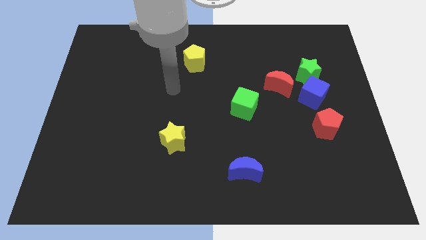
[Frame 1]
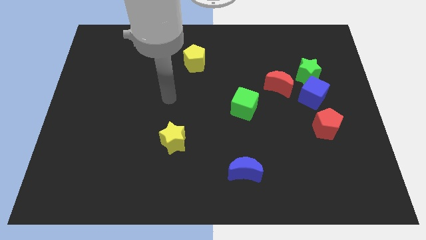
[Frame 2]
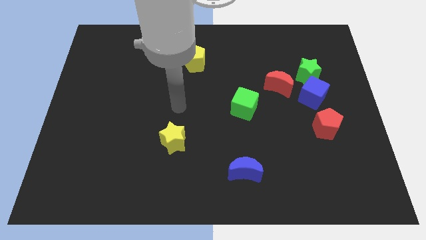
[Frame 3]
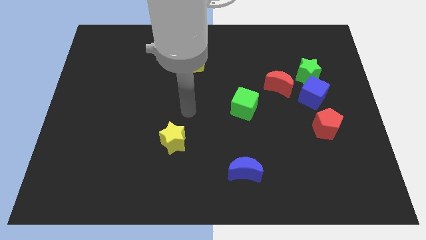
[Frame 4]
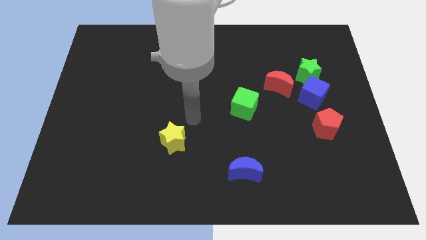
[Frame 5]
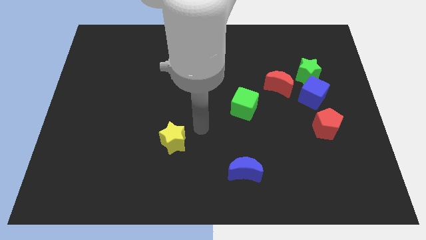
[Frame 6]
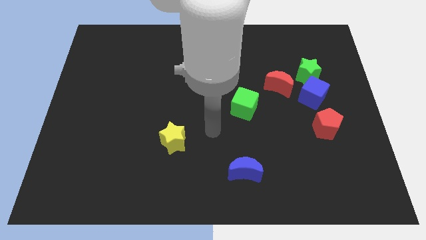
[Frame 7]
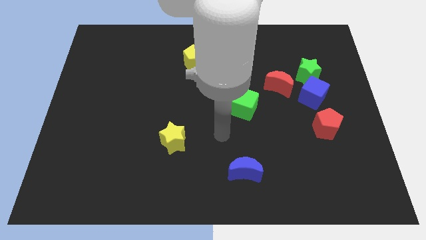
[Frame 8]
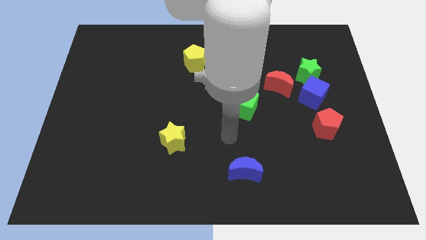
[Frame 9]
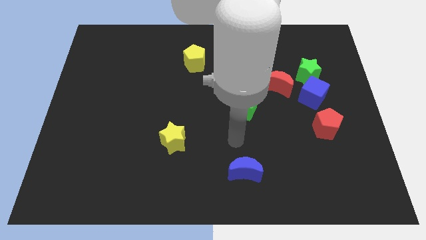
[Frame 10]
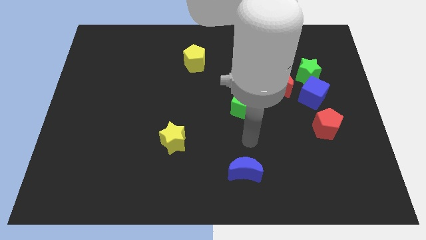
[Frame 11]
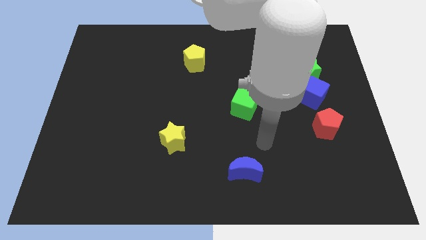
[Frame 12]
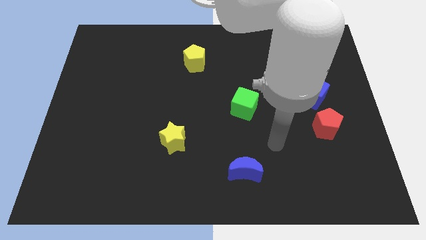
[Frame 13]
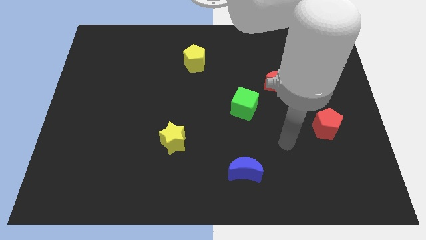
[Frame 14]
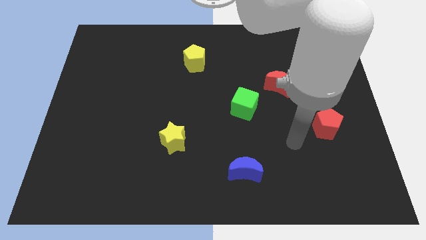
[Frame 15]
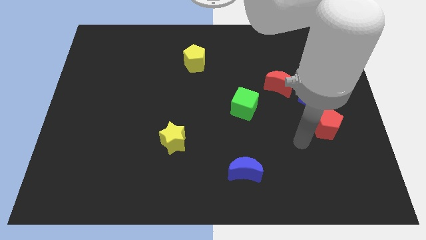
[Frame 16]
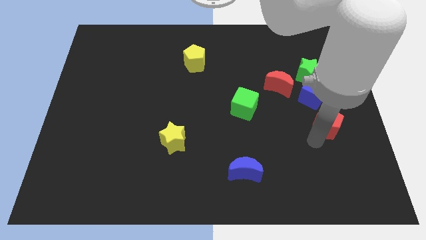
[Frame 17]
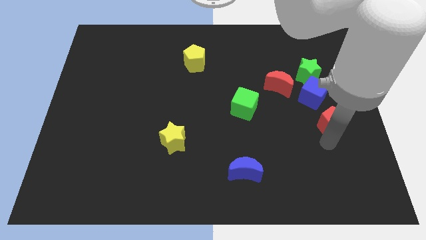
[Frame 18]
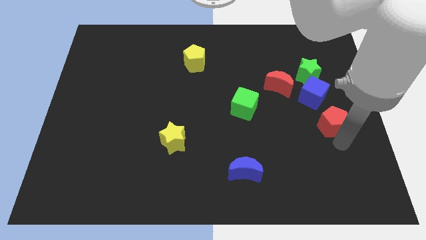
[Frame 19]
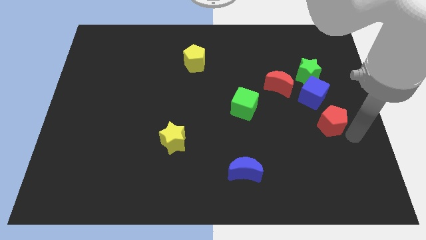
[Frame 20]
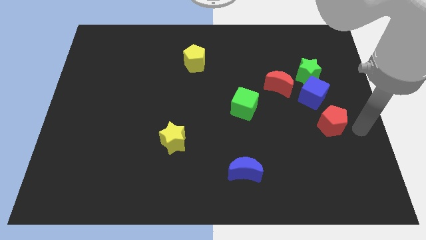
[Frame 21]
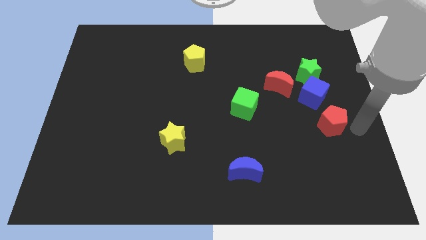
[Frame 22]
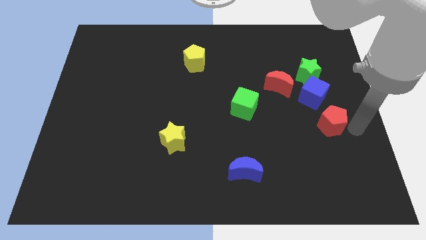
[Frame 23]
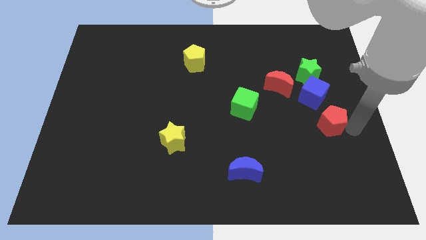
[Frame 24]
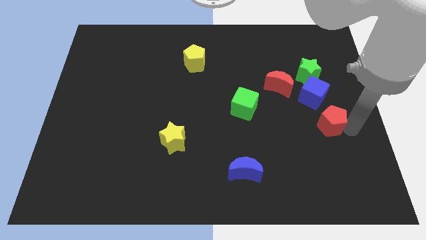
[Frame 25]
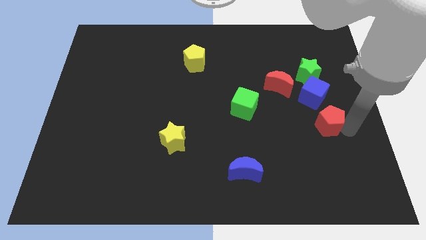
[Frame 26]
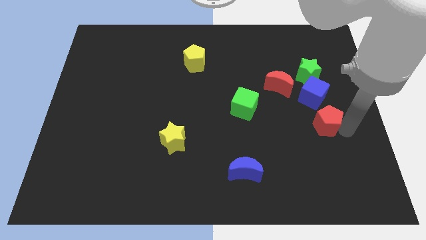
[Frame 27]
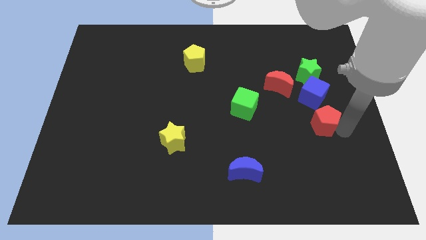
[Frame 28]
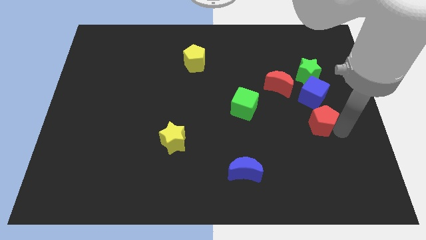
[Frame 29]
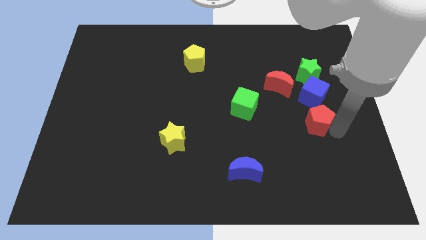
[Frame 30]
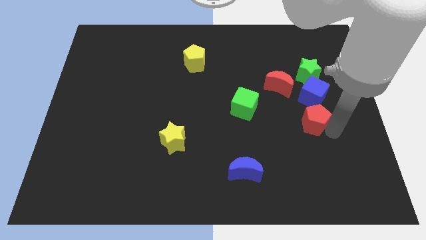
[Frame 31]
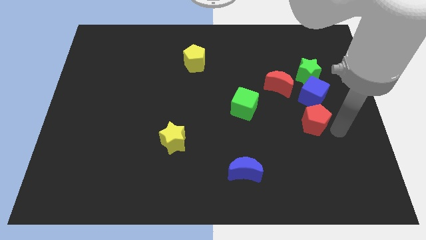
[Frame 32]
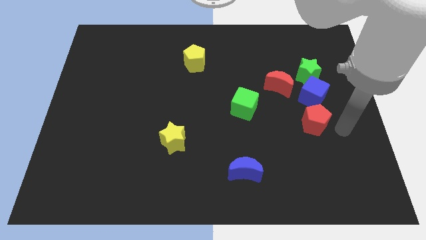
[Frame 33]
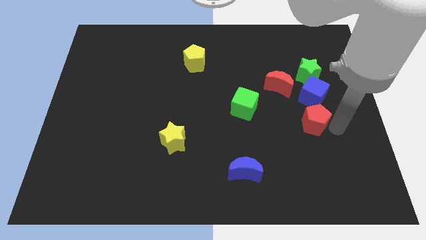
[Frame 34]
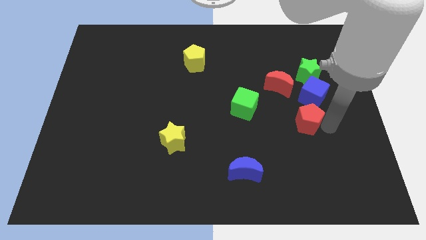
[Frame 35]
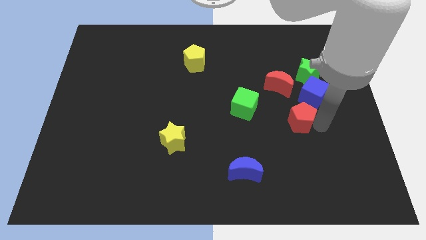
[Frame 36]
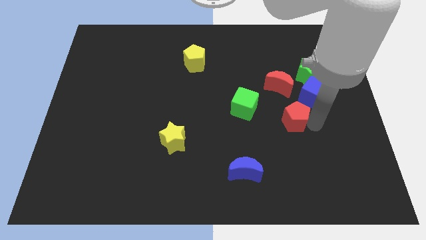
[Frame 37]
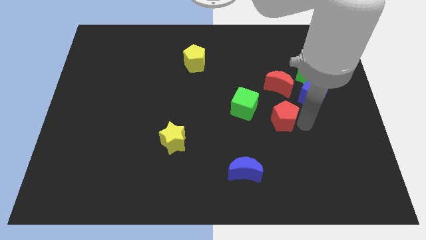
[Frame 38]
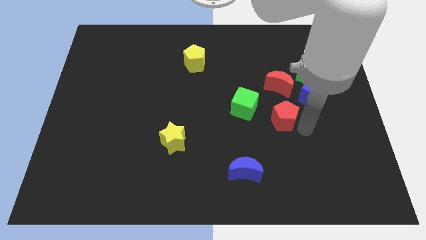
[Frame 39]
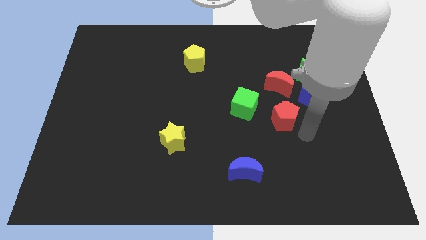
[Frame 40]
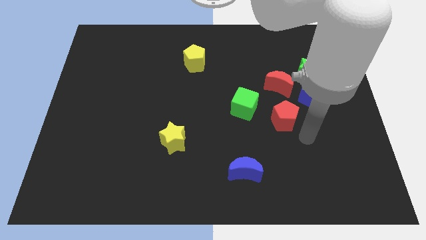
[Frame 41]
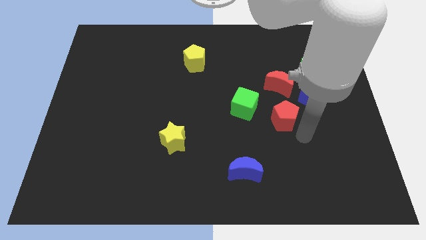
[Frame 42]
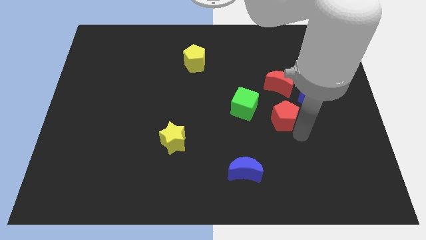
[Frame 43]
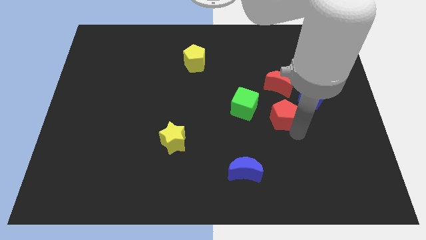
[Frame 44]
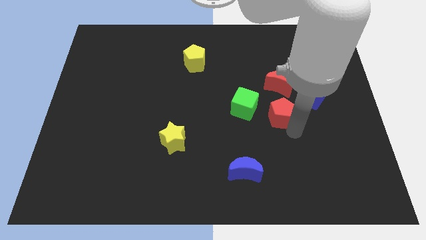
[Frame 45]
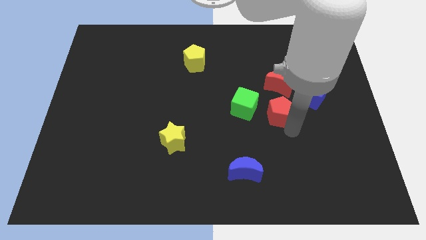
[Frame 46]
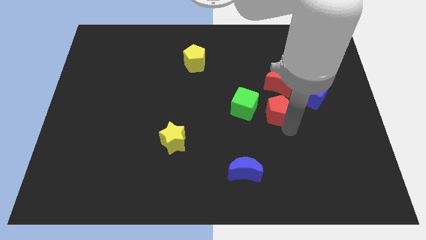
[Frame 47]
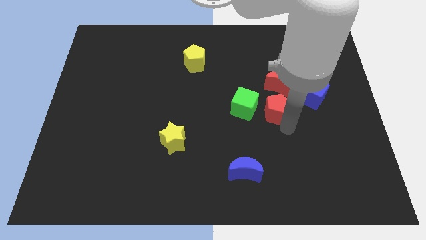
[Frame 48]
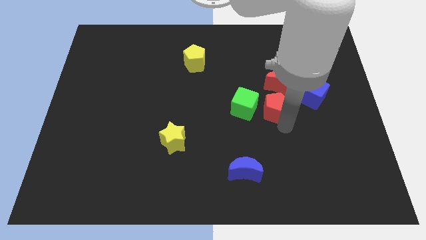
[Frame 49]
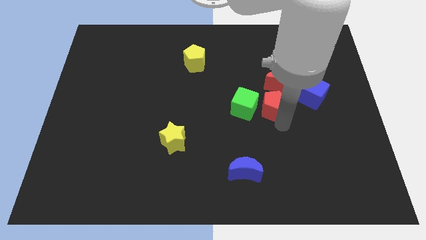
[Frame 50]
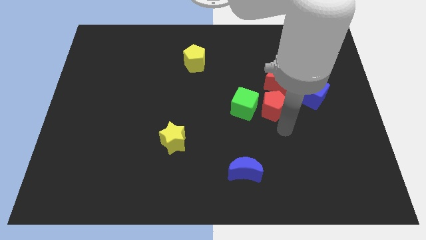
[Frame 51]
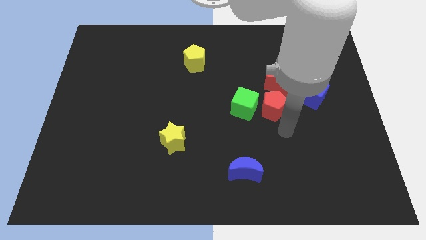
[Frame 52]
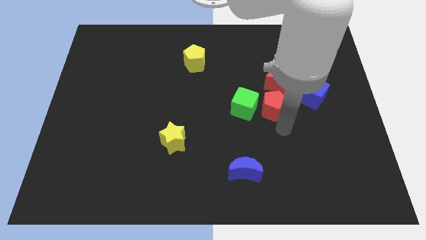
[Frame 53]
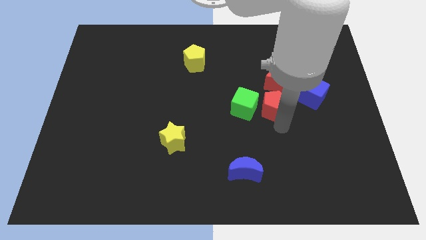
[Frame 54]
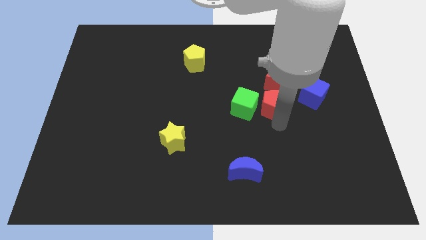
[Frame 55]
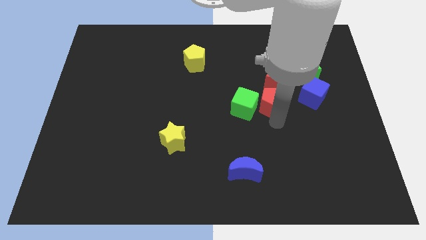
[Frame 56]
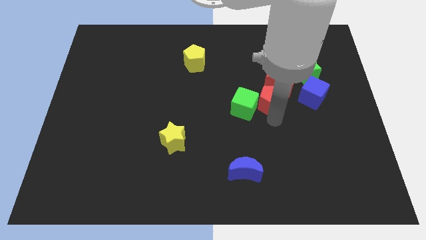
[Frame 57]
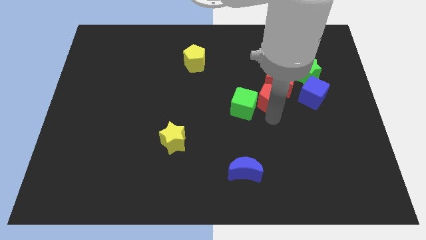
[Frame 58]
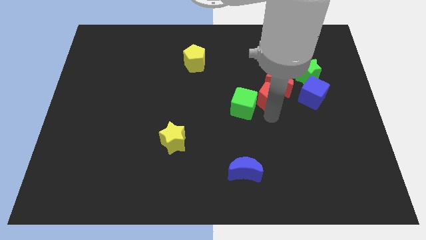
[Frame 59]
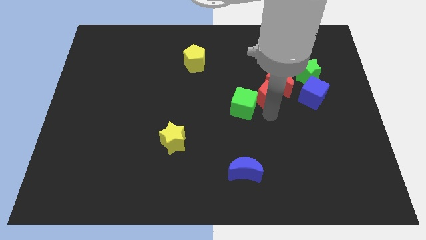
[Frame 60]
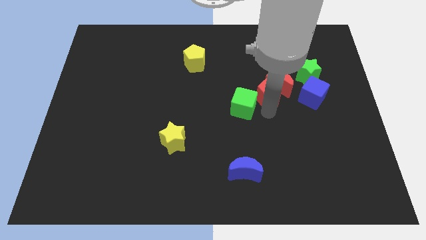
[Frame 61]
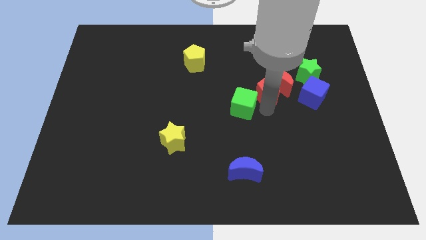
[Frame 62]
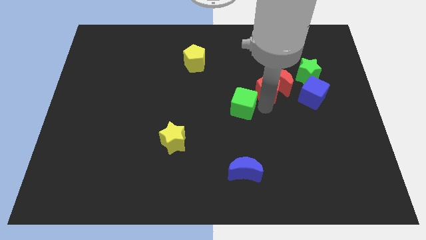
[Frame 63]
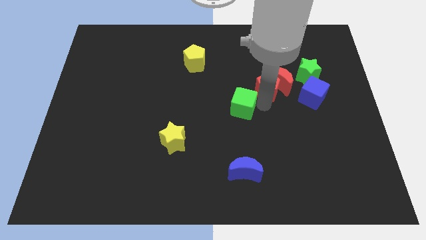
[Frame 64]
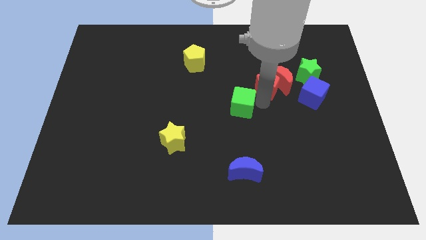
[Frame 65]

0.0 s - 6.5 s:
slide the red pentagon to the left of the green star
